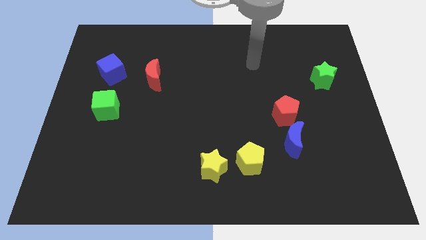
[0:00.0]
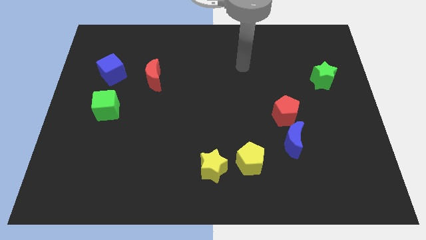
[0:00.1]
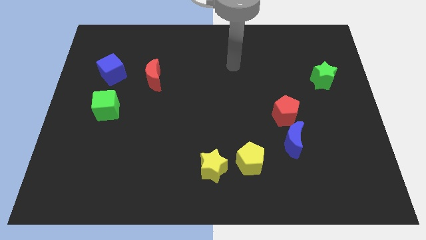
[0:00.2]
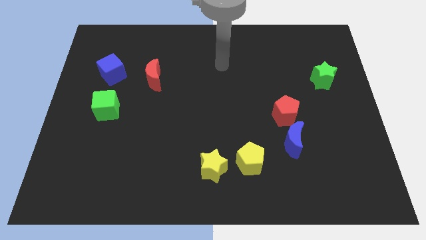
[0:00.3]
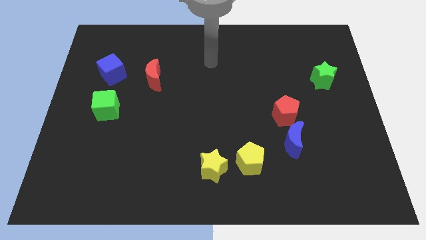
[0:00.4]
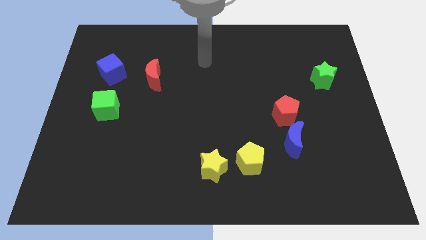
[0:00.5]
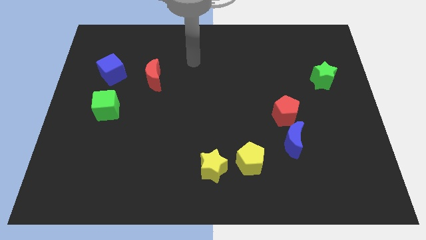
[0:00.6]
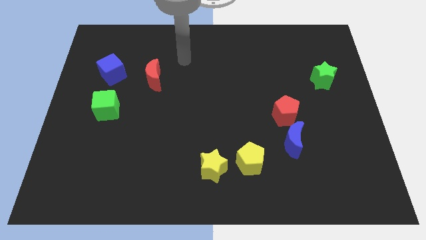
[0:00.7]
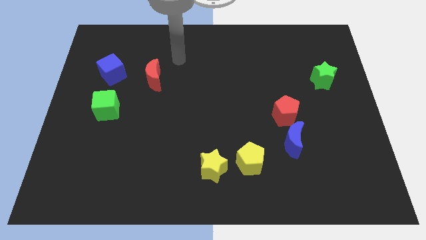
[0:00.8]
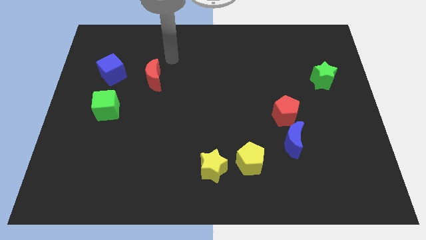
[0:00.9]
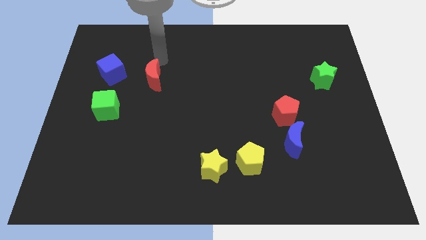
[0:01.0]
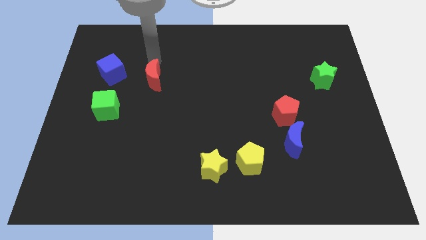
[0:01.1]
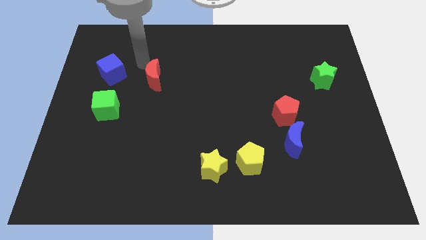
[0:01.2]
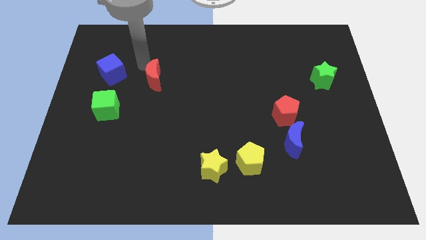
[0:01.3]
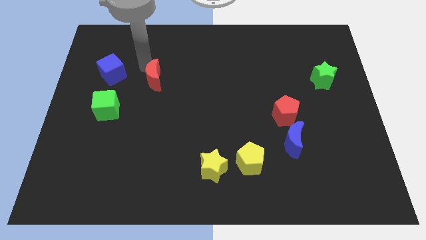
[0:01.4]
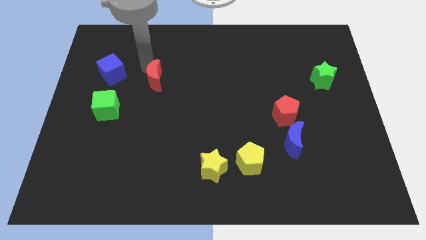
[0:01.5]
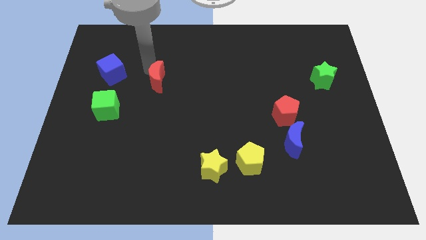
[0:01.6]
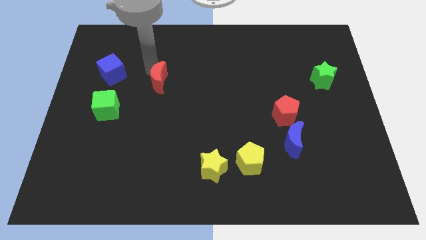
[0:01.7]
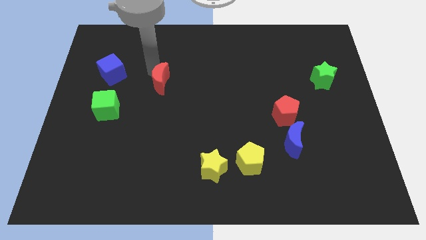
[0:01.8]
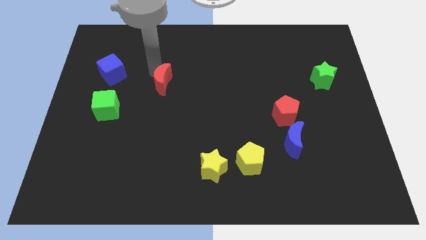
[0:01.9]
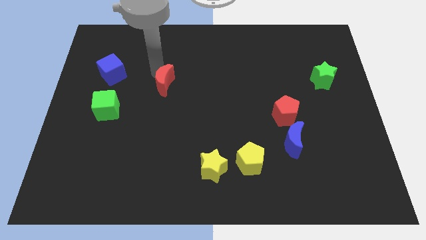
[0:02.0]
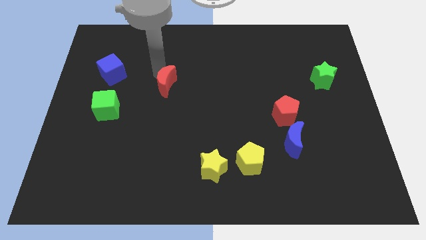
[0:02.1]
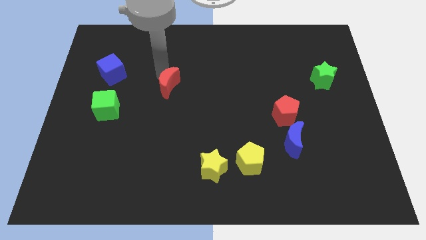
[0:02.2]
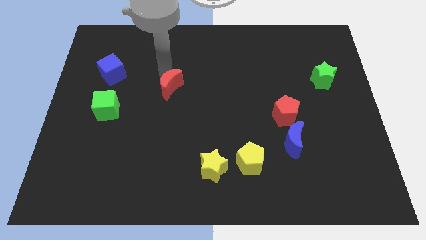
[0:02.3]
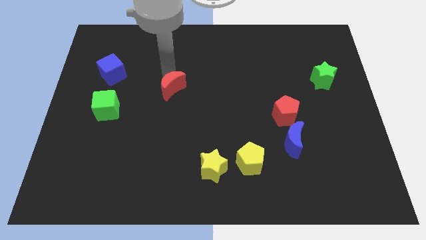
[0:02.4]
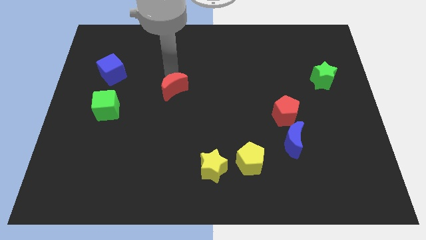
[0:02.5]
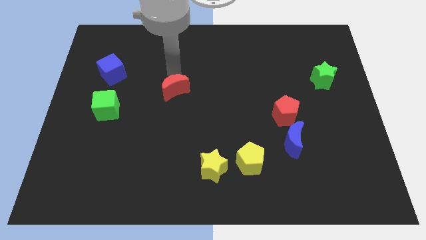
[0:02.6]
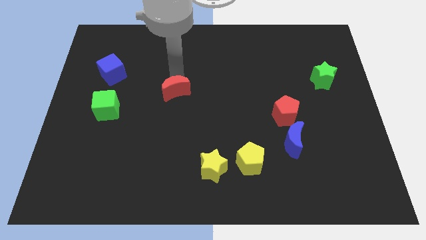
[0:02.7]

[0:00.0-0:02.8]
move the red moon downwards and then to the right somewhat

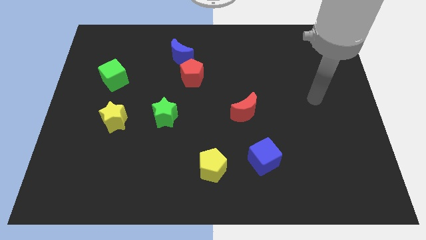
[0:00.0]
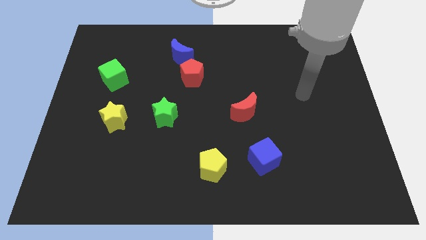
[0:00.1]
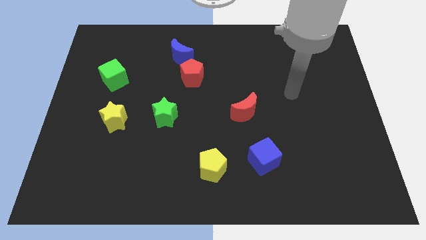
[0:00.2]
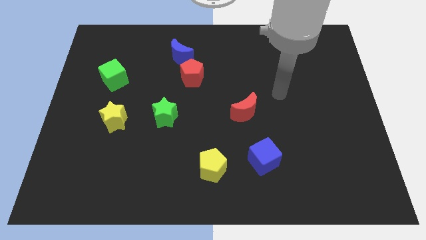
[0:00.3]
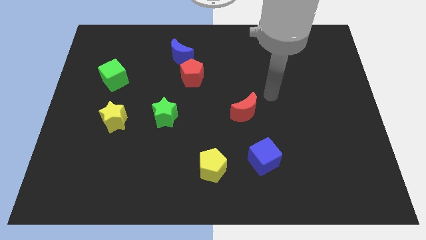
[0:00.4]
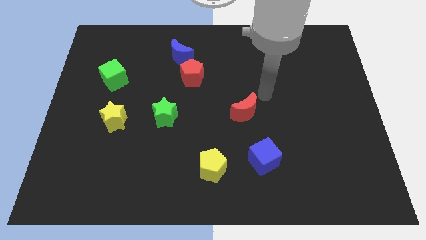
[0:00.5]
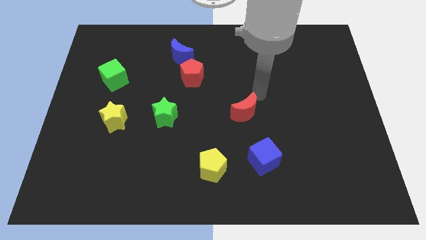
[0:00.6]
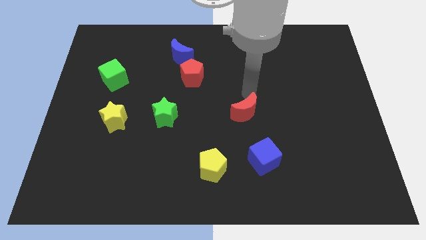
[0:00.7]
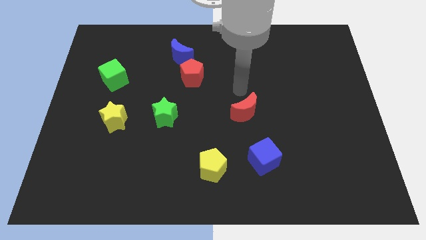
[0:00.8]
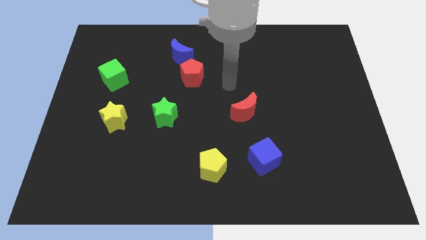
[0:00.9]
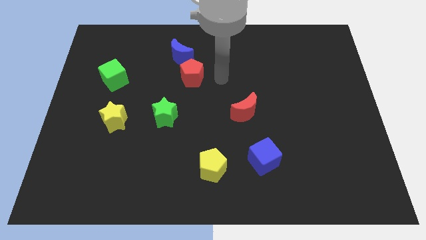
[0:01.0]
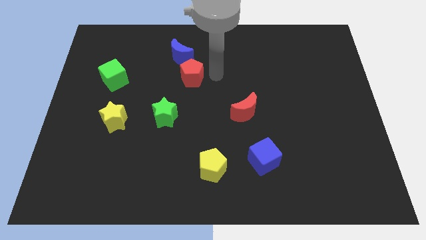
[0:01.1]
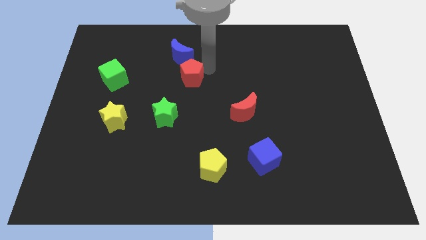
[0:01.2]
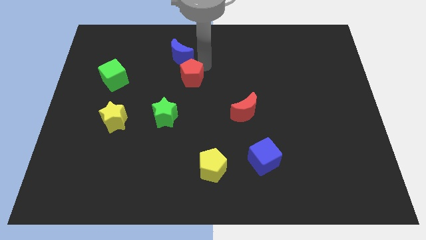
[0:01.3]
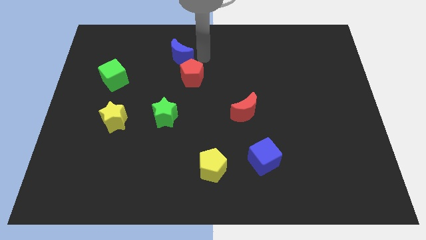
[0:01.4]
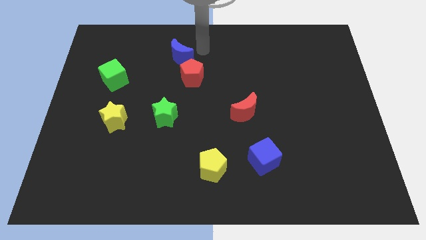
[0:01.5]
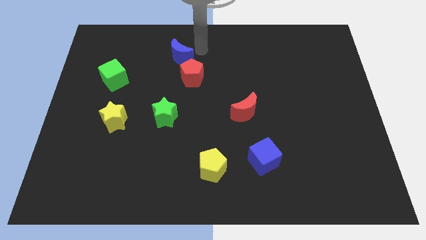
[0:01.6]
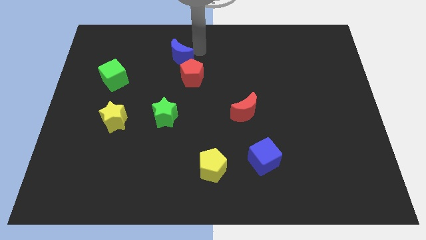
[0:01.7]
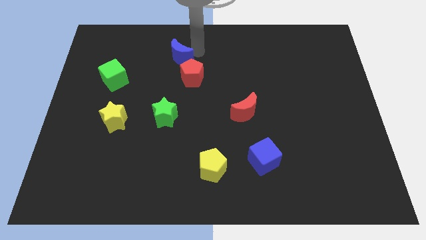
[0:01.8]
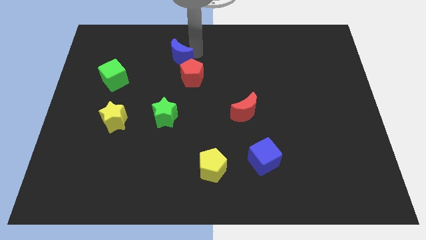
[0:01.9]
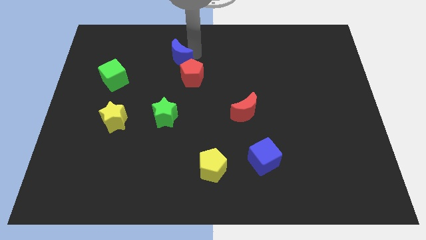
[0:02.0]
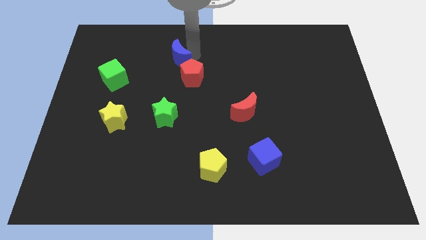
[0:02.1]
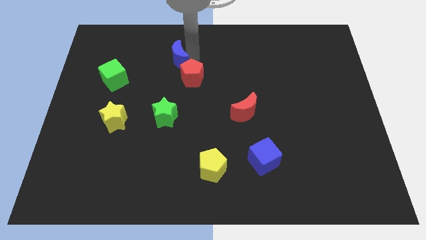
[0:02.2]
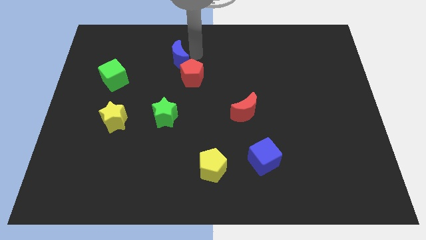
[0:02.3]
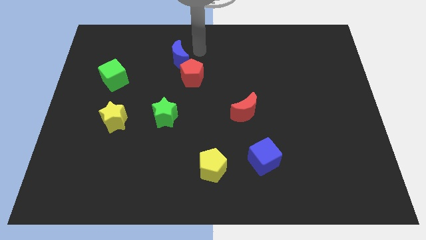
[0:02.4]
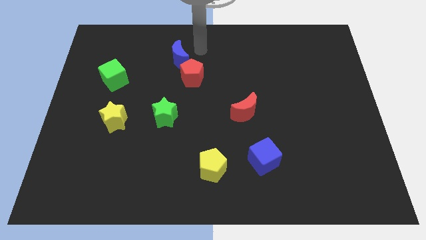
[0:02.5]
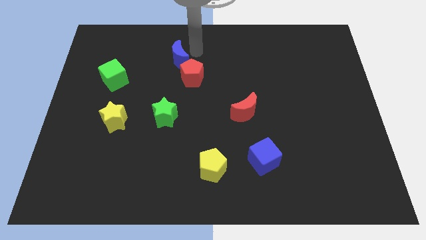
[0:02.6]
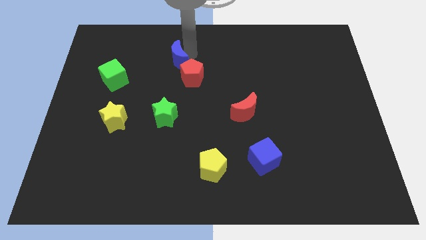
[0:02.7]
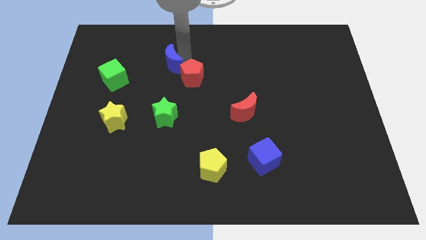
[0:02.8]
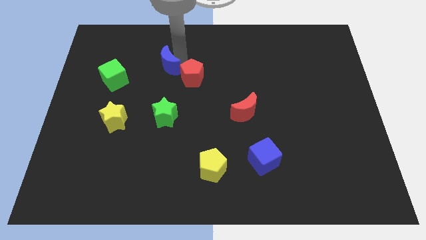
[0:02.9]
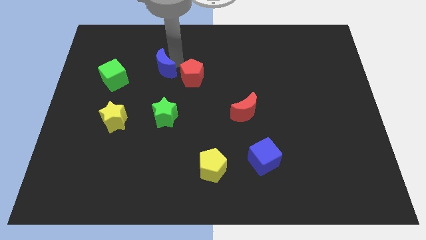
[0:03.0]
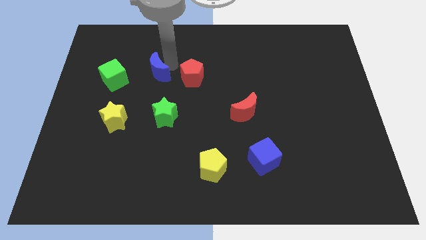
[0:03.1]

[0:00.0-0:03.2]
slightly slide the blue moon down and to the left diagonally

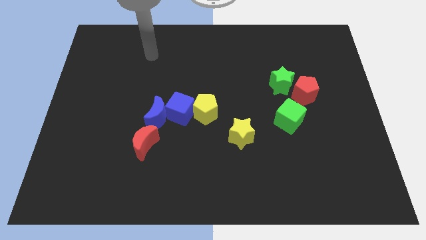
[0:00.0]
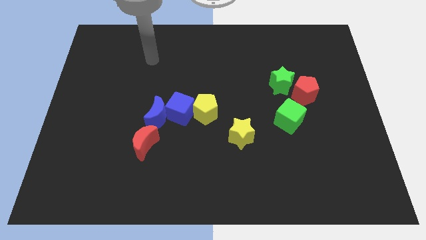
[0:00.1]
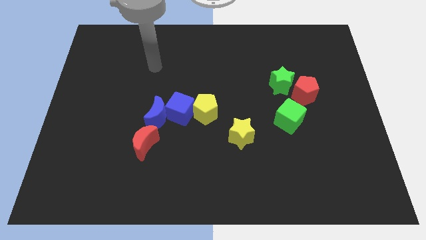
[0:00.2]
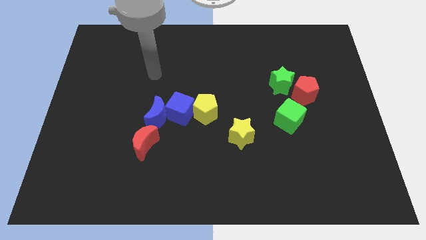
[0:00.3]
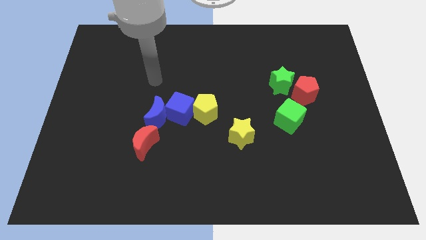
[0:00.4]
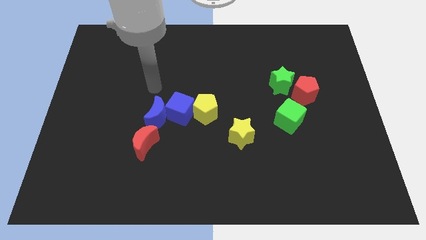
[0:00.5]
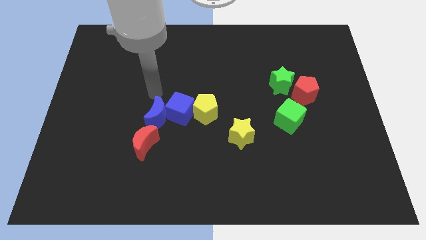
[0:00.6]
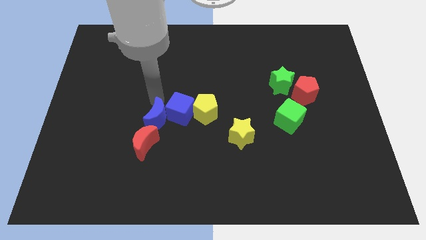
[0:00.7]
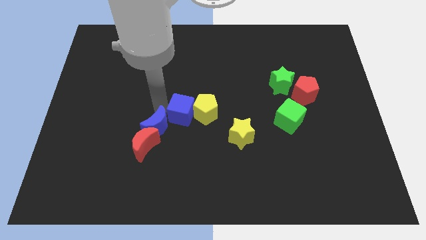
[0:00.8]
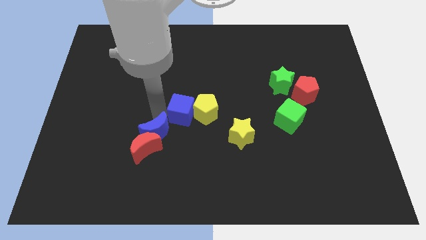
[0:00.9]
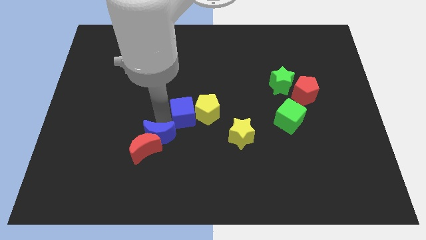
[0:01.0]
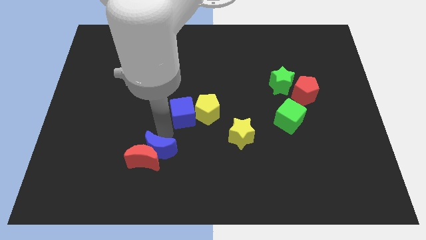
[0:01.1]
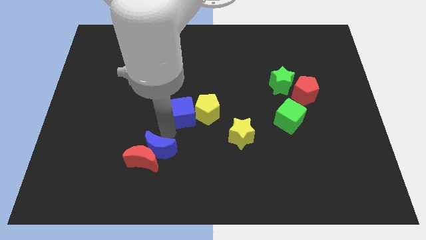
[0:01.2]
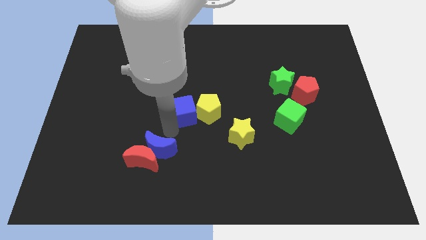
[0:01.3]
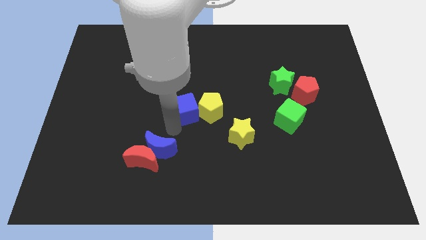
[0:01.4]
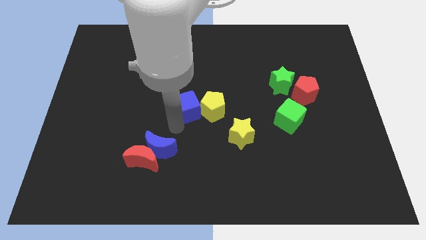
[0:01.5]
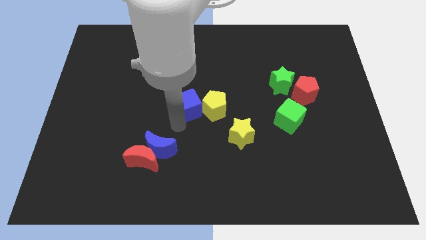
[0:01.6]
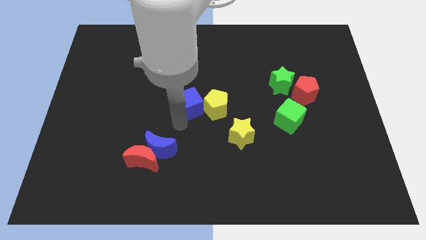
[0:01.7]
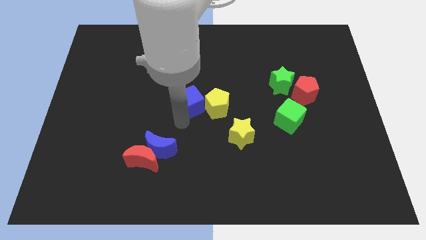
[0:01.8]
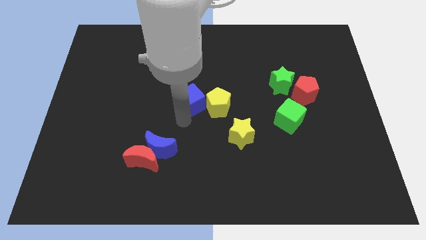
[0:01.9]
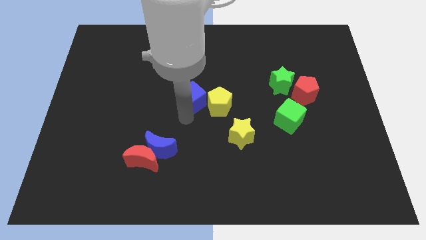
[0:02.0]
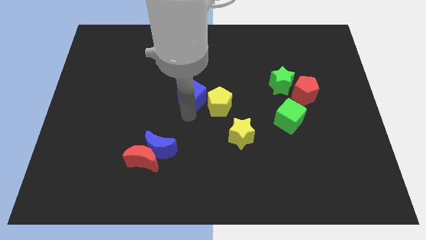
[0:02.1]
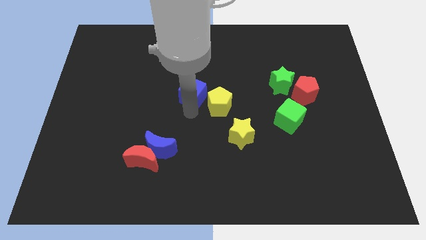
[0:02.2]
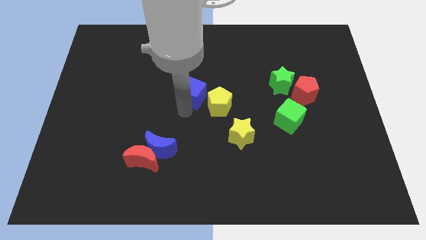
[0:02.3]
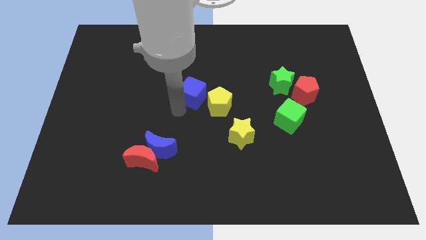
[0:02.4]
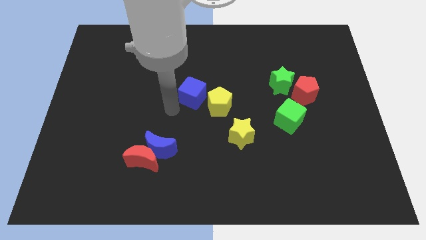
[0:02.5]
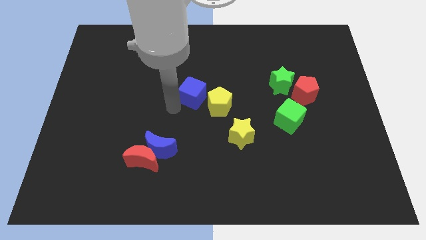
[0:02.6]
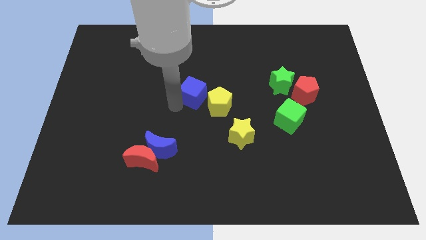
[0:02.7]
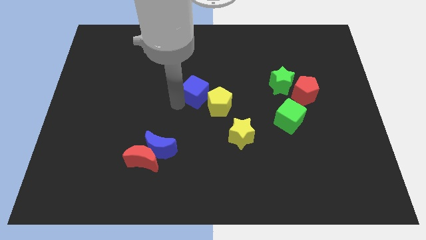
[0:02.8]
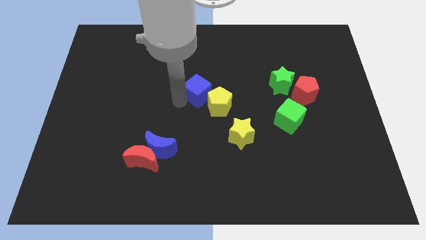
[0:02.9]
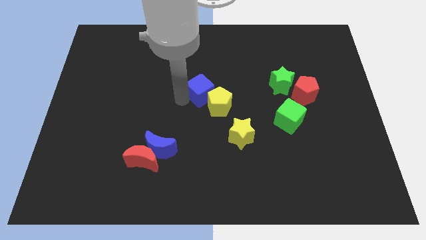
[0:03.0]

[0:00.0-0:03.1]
push the blue cube a little bit upwards and then to the right
